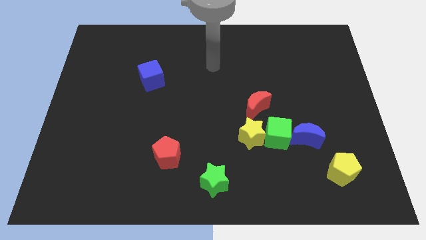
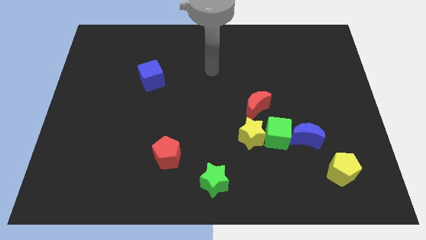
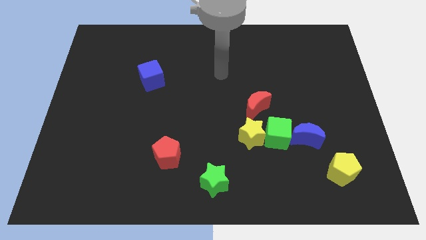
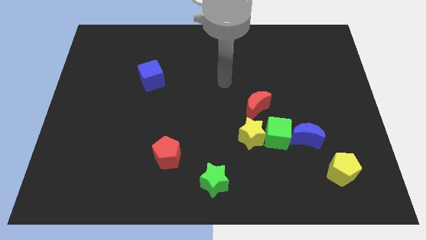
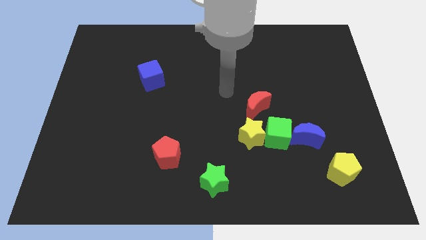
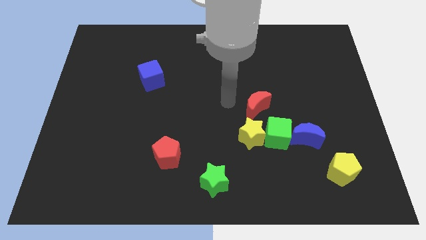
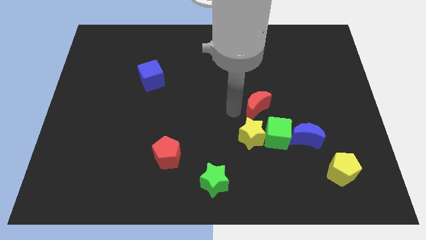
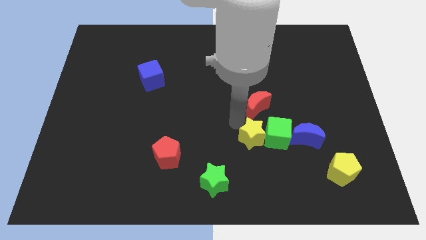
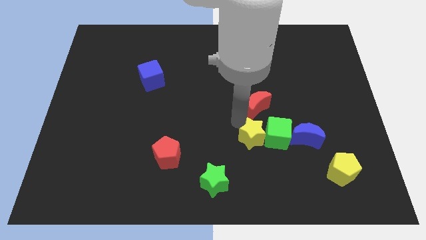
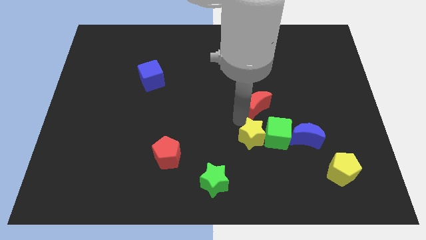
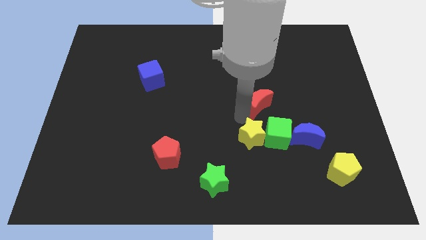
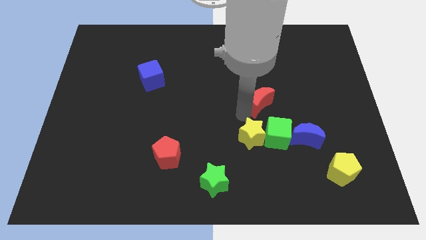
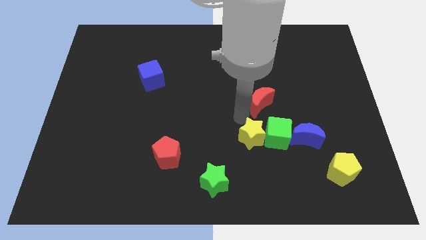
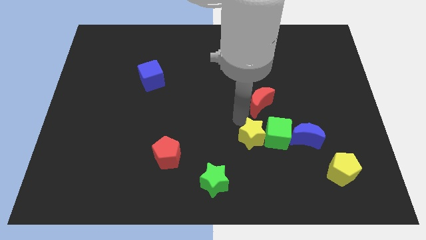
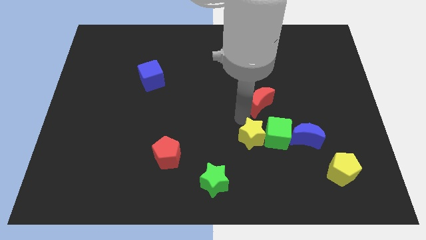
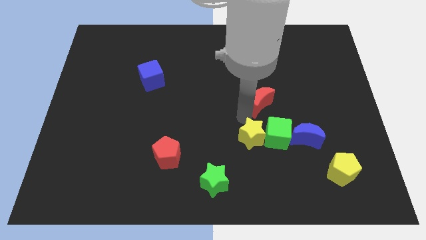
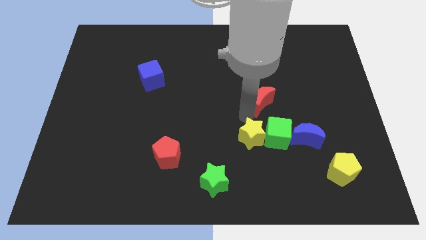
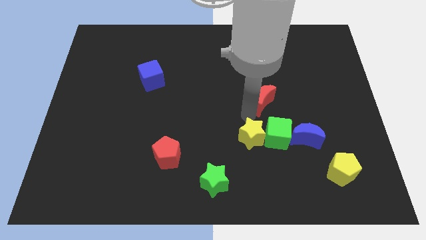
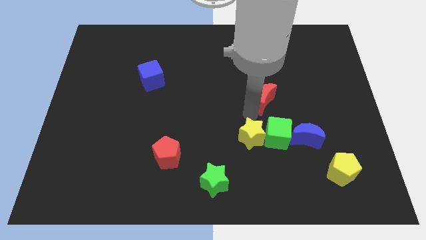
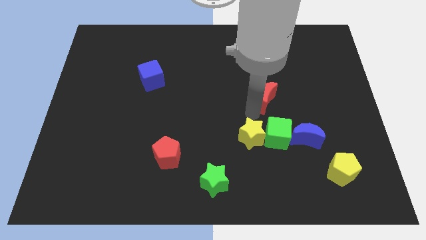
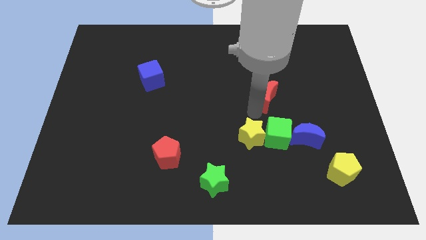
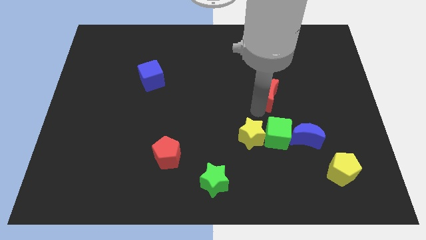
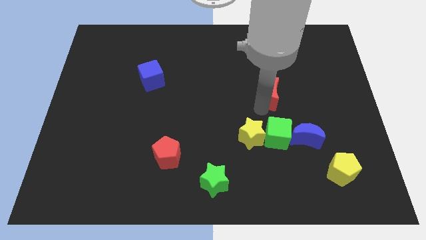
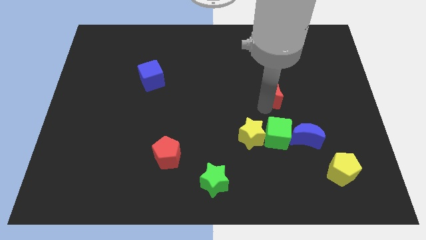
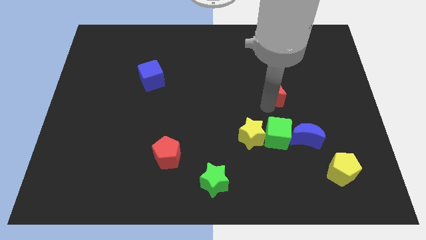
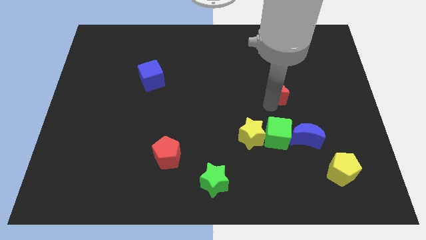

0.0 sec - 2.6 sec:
slide the red moon diagonally up and to the right a bit

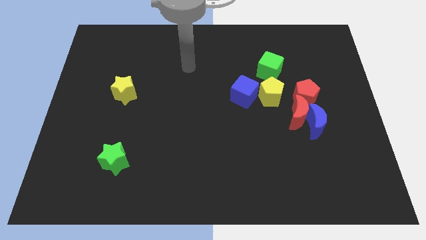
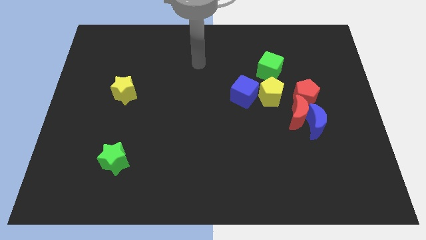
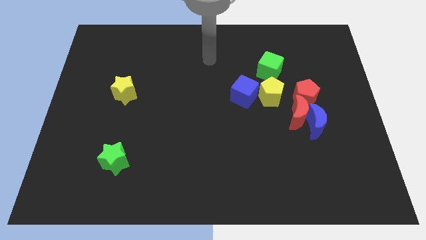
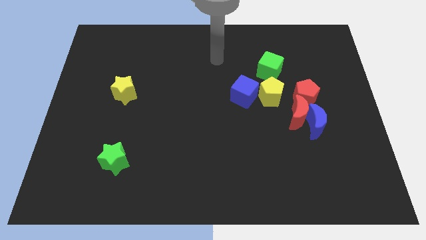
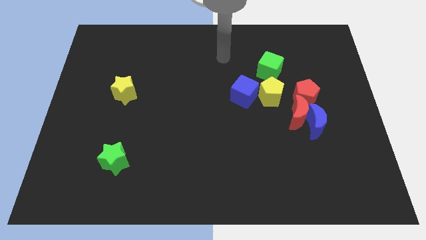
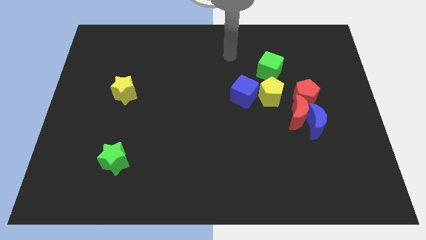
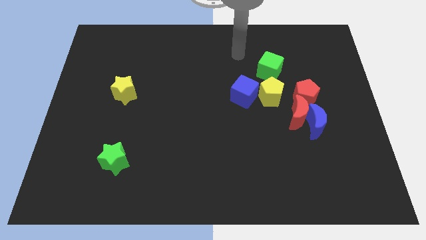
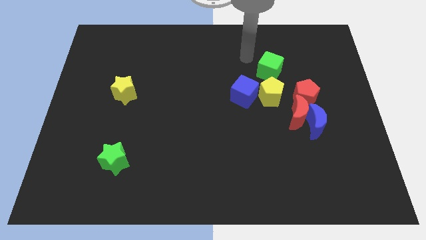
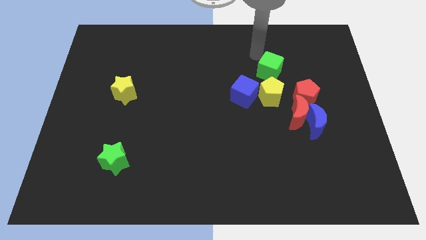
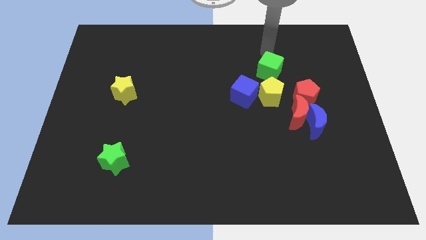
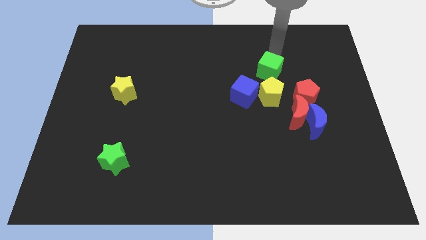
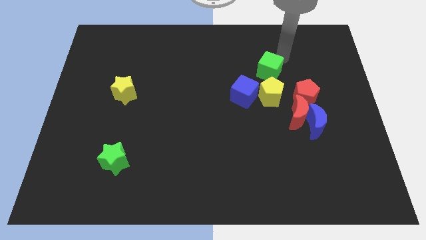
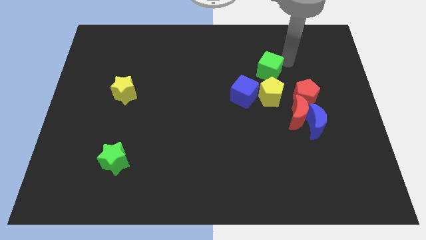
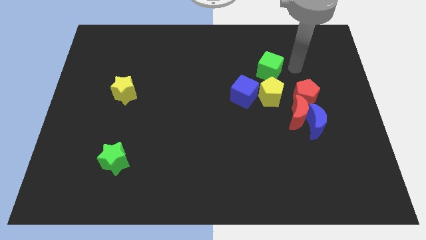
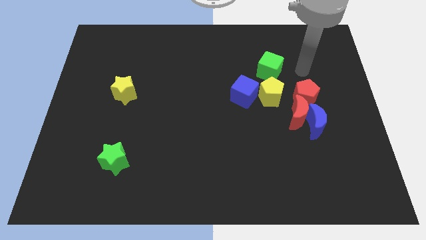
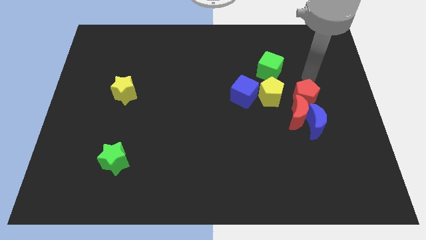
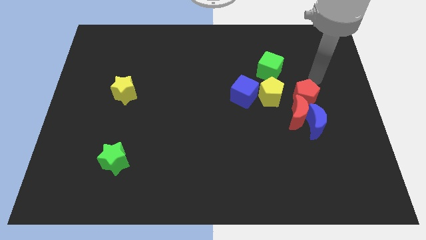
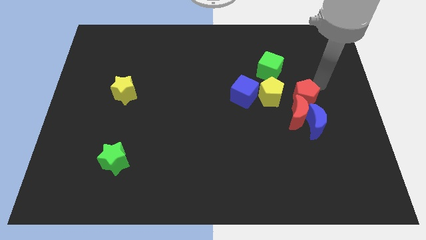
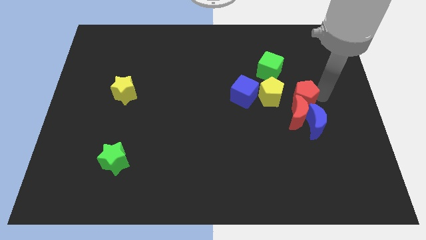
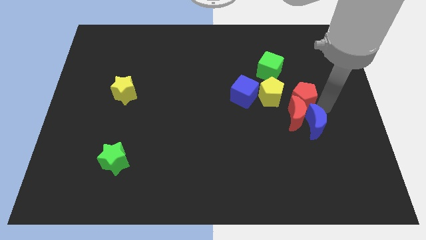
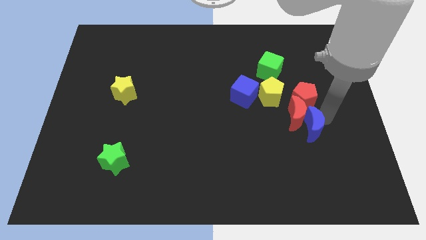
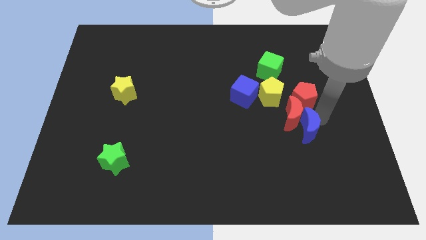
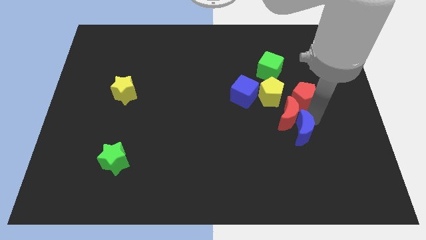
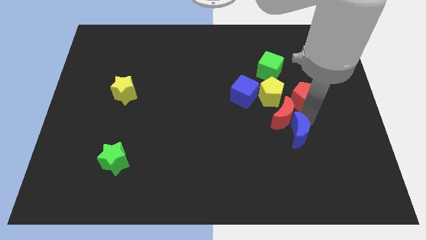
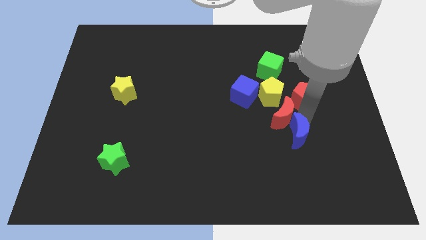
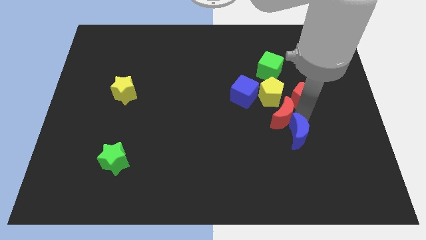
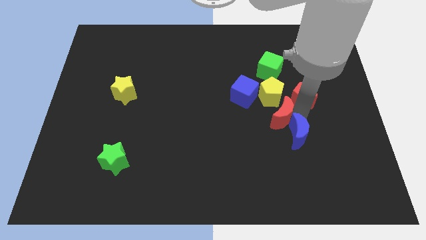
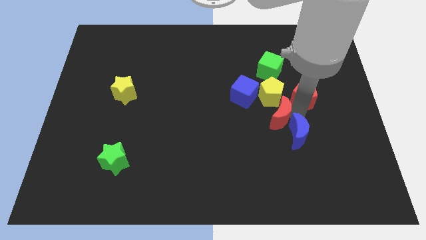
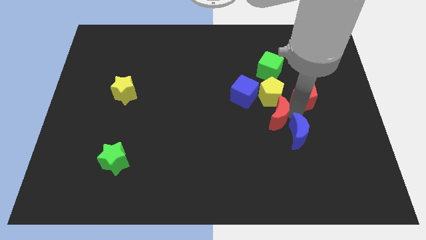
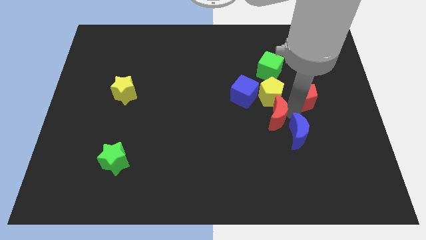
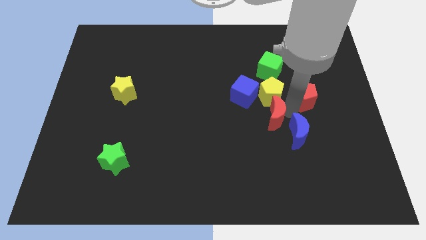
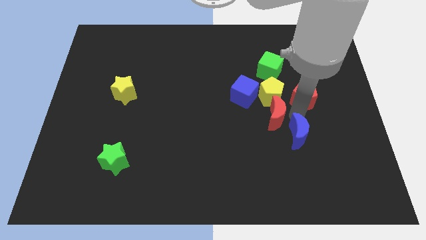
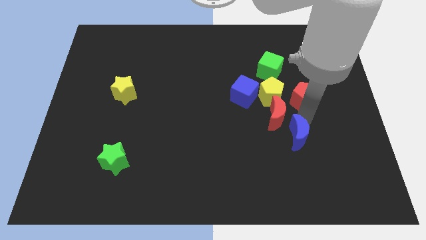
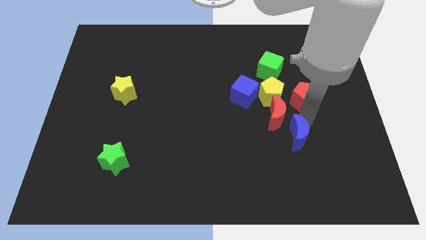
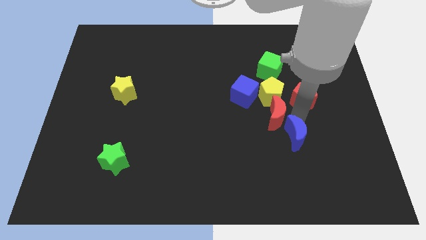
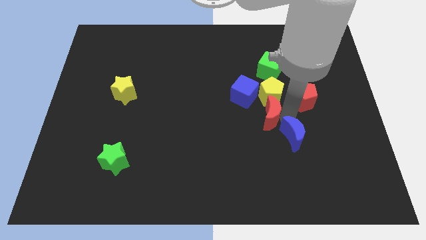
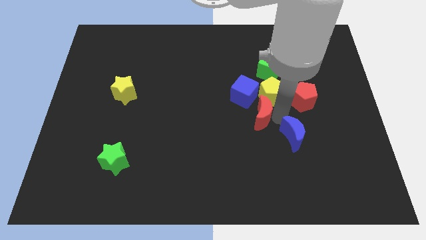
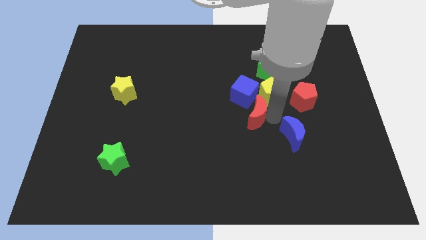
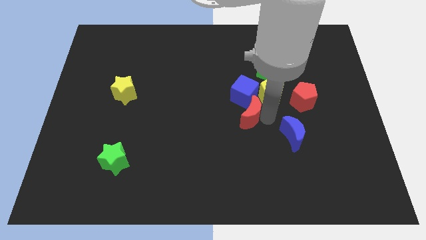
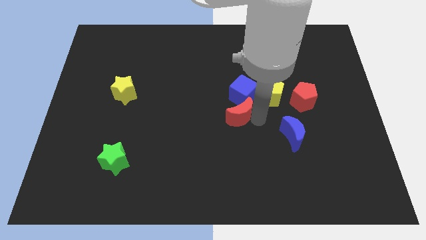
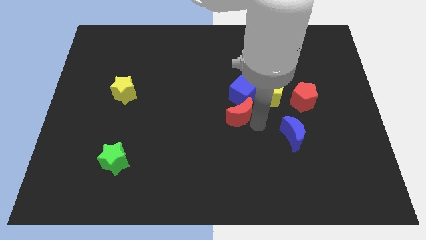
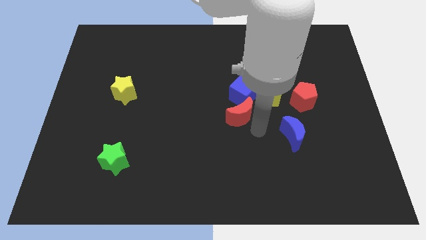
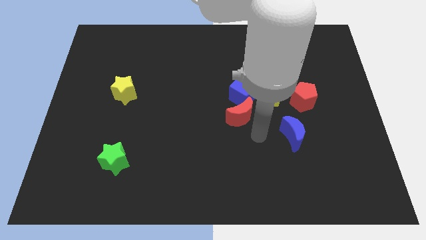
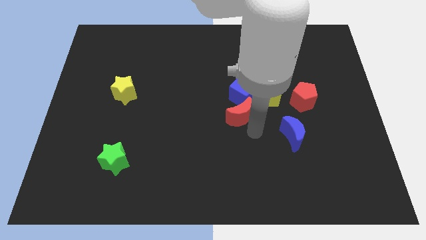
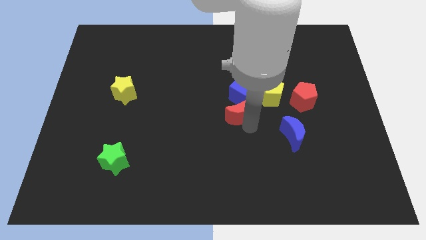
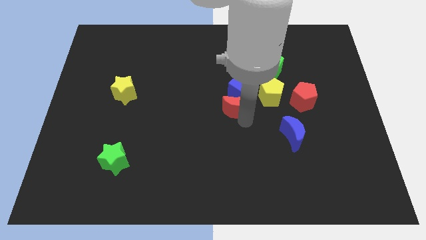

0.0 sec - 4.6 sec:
push the red moon a little bit upwards and to the left

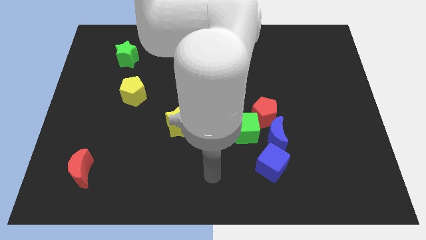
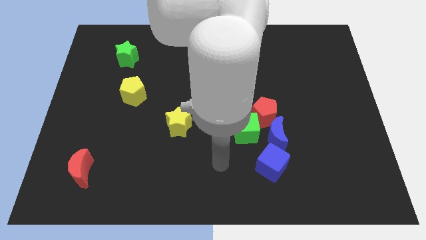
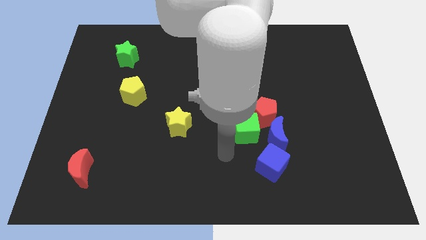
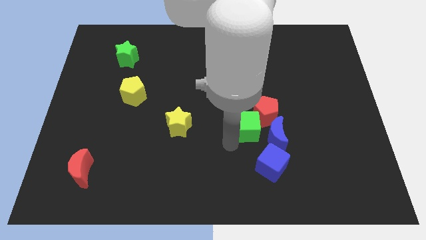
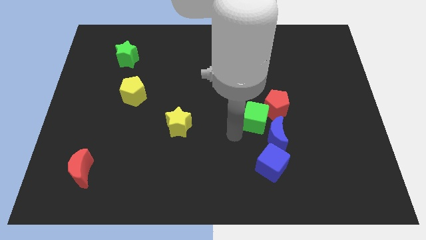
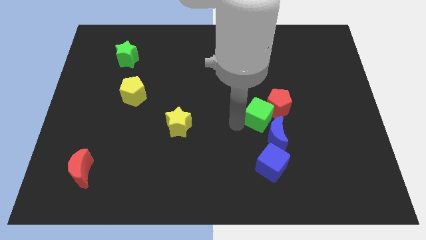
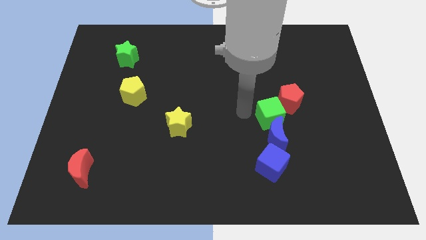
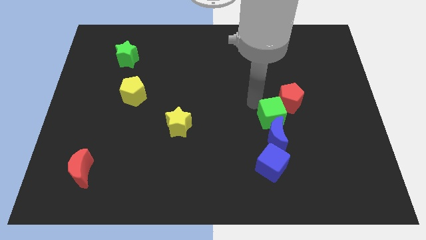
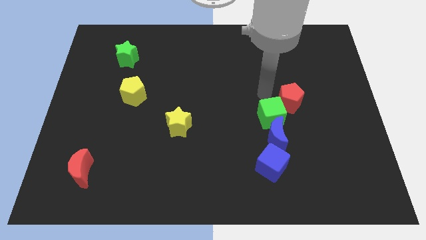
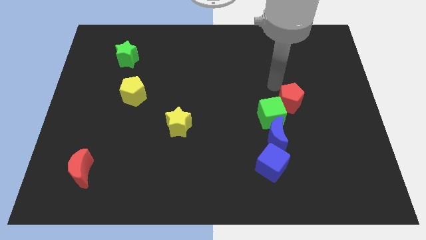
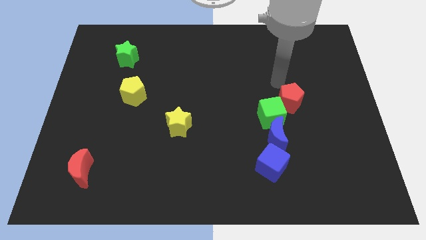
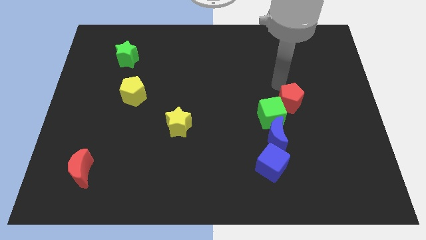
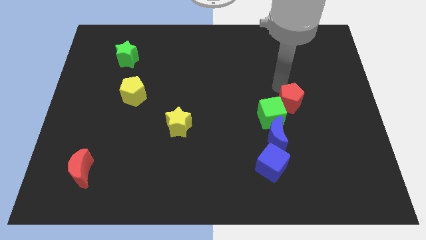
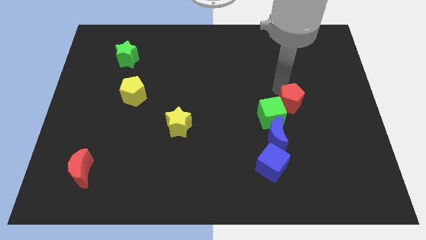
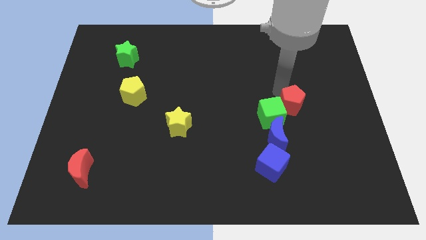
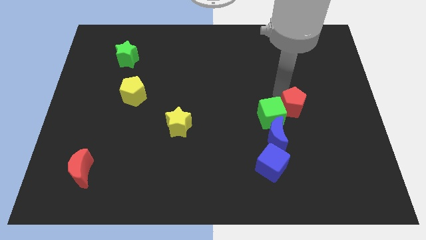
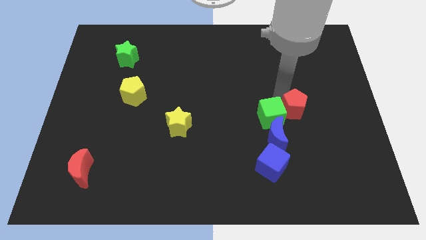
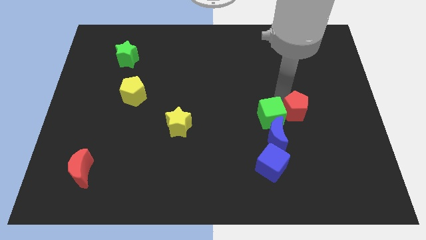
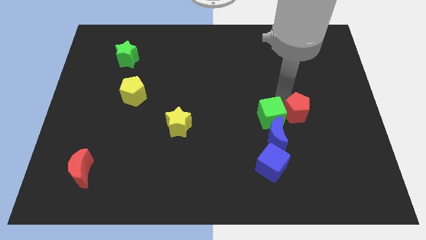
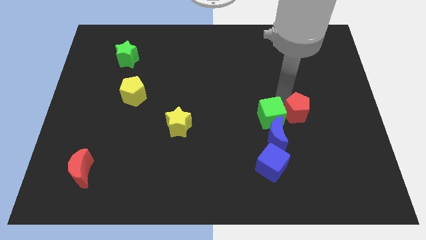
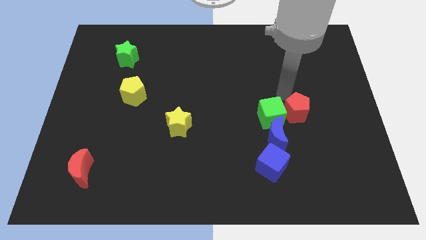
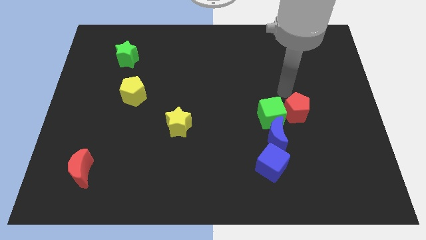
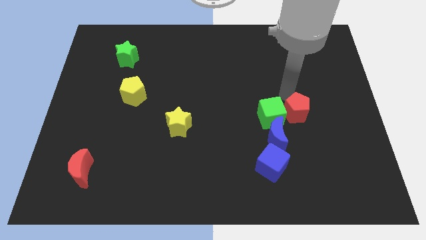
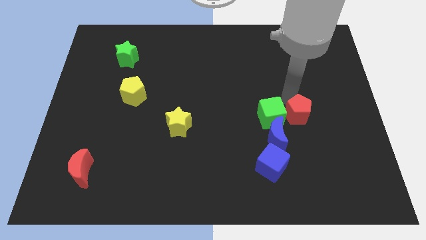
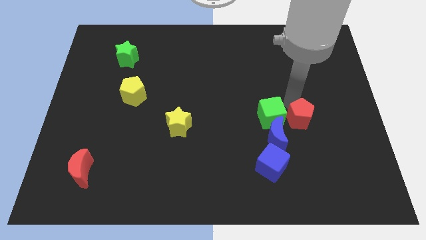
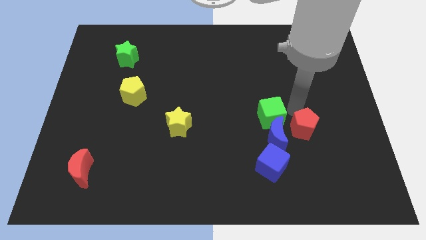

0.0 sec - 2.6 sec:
push the red pentagon downwards and then right slightly
